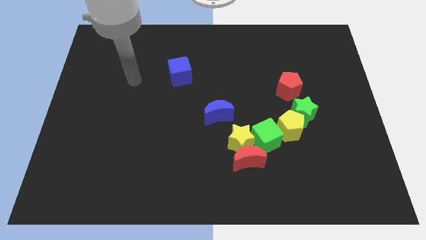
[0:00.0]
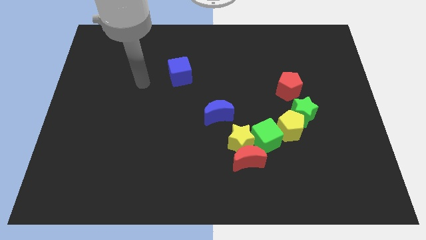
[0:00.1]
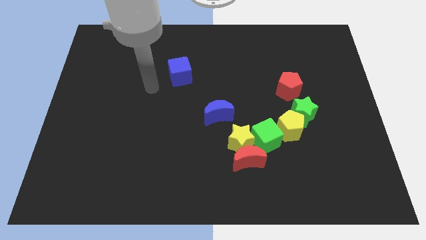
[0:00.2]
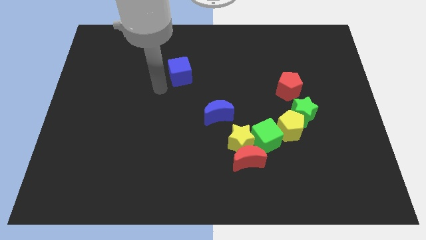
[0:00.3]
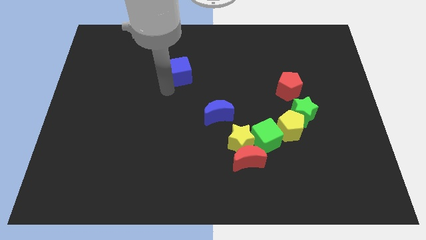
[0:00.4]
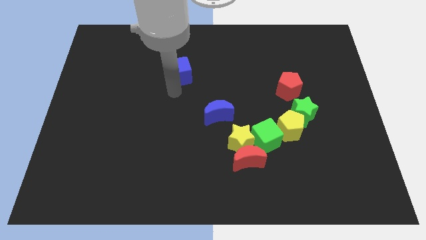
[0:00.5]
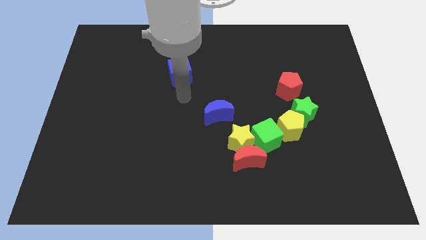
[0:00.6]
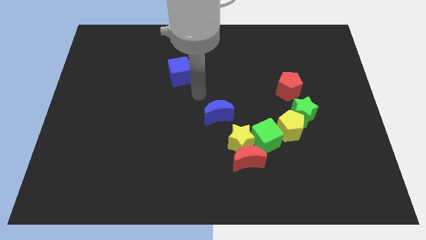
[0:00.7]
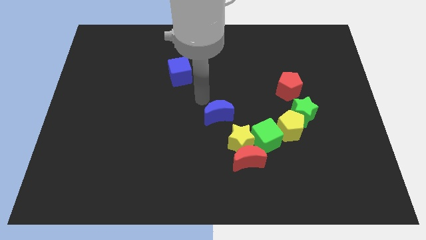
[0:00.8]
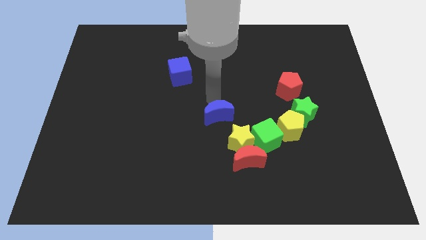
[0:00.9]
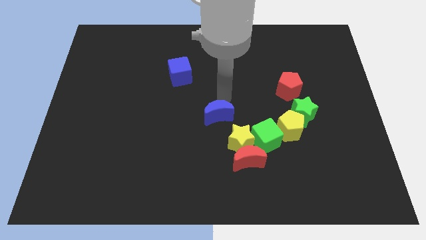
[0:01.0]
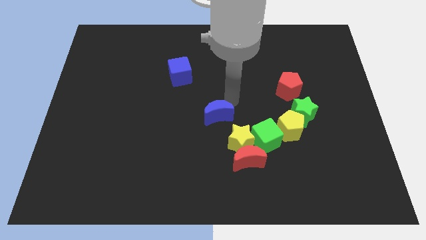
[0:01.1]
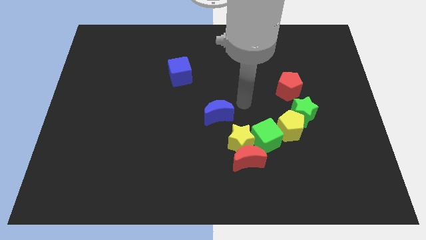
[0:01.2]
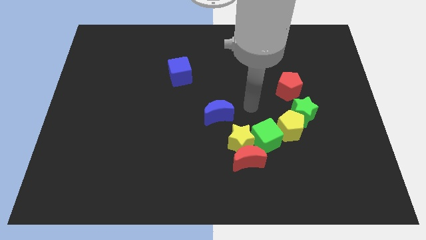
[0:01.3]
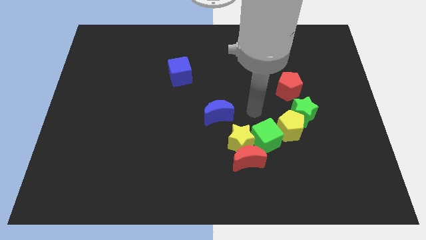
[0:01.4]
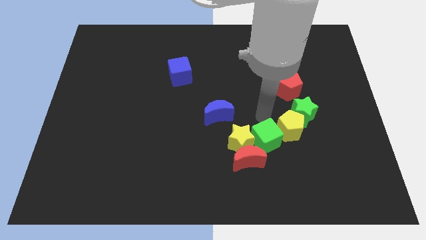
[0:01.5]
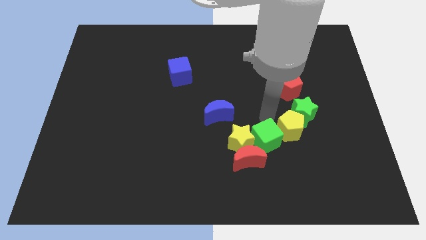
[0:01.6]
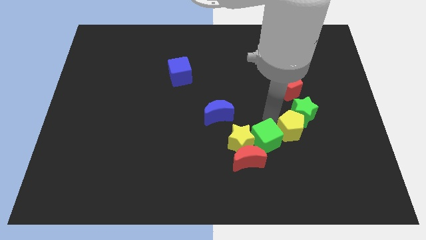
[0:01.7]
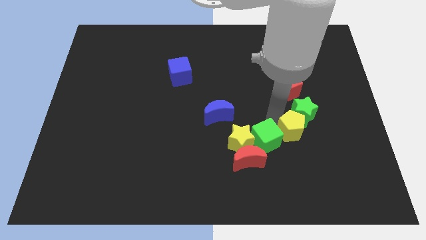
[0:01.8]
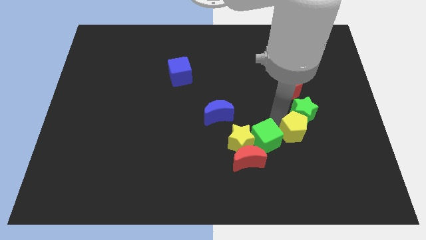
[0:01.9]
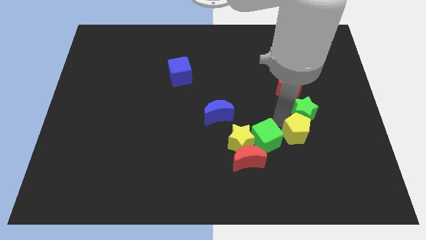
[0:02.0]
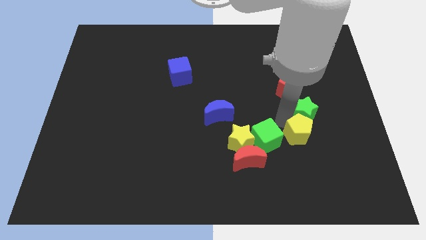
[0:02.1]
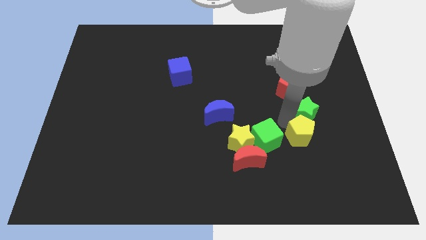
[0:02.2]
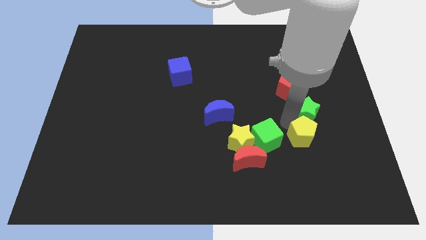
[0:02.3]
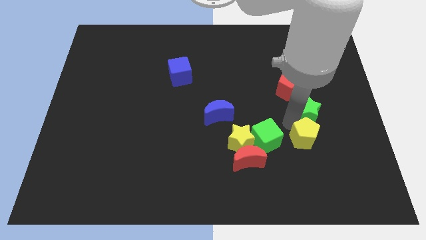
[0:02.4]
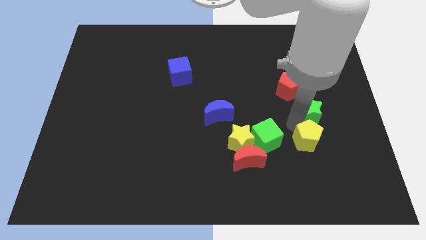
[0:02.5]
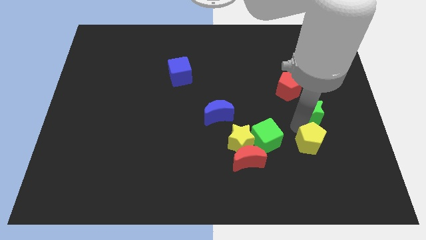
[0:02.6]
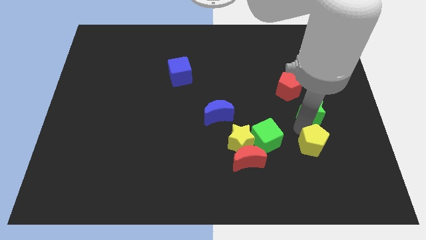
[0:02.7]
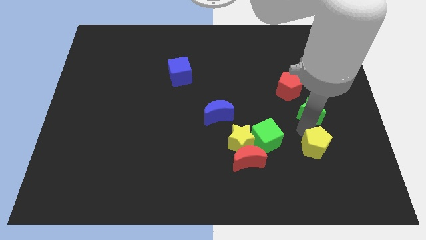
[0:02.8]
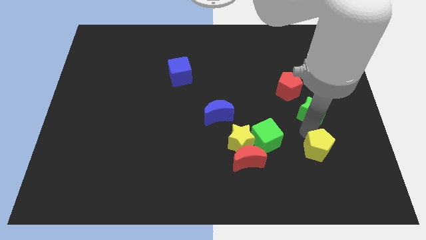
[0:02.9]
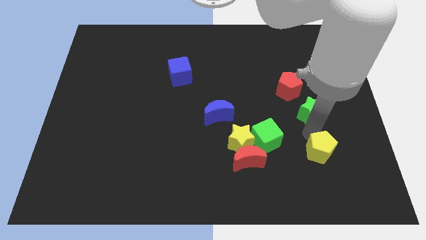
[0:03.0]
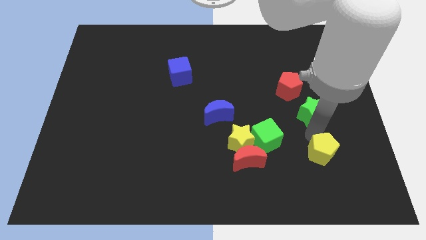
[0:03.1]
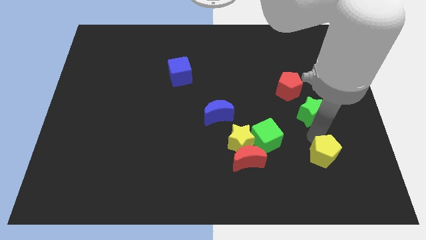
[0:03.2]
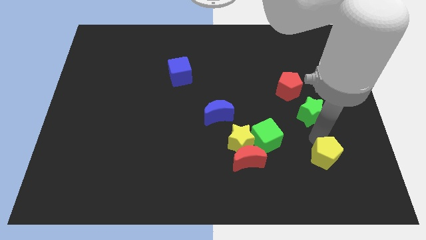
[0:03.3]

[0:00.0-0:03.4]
pull the yellow pentagon apart from the green star and green cube

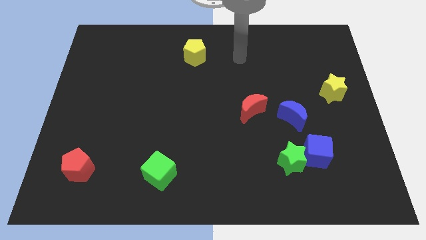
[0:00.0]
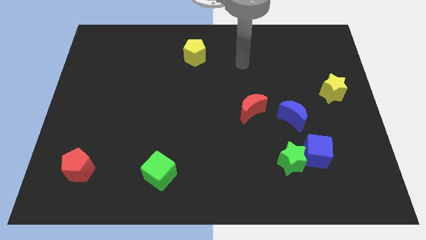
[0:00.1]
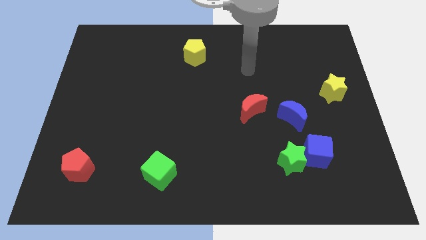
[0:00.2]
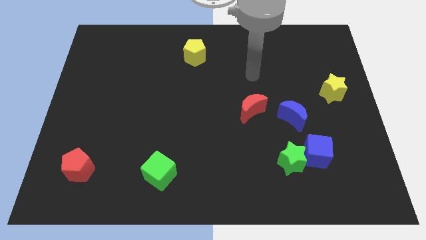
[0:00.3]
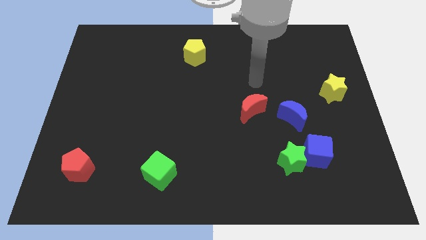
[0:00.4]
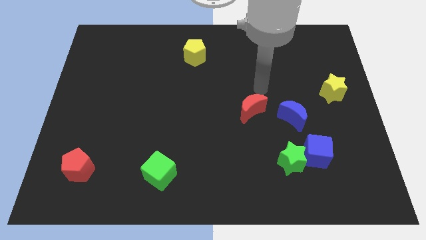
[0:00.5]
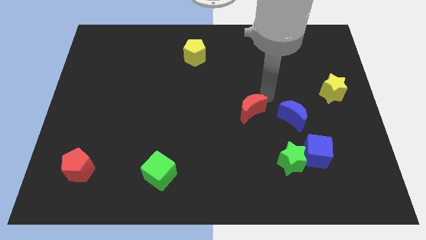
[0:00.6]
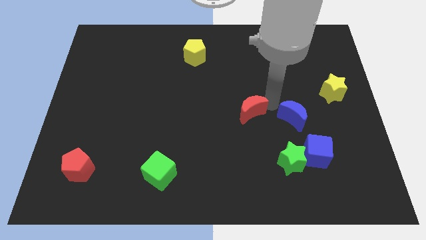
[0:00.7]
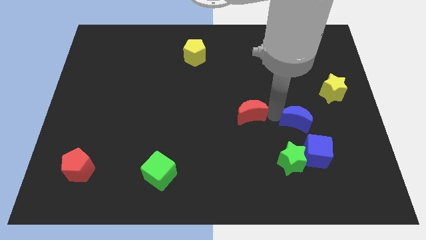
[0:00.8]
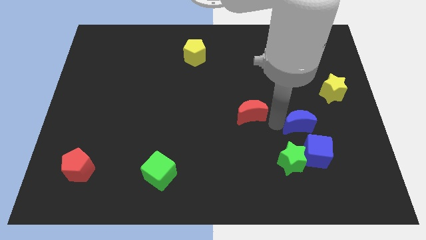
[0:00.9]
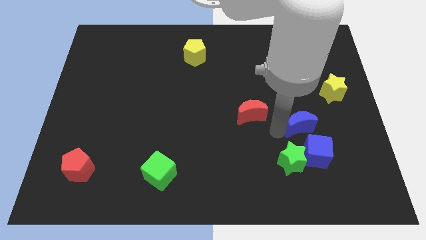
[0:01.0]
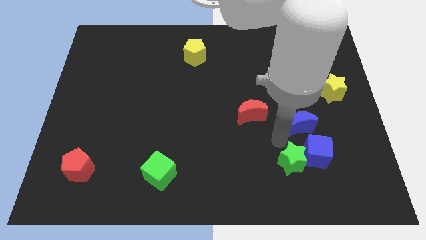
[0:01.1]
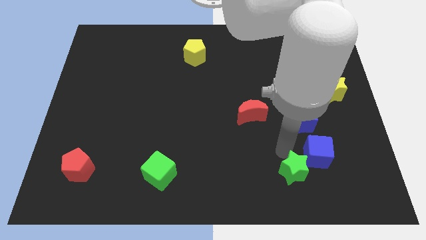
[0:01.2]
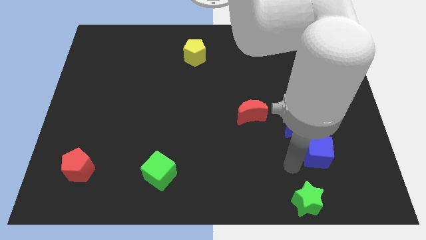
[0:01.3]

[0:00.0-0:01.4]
pull the blue cube apart from the green star

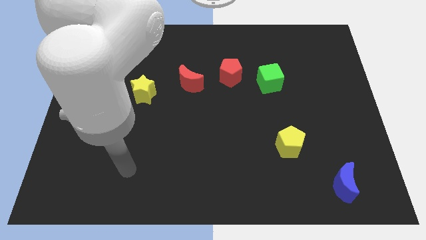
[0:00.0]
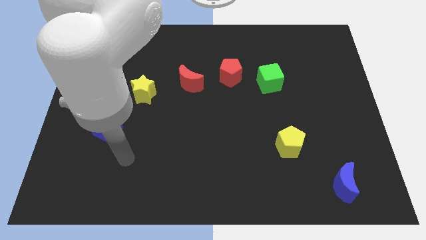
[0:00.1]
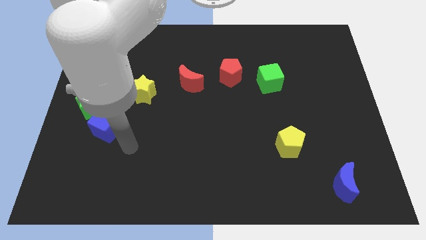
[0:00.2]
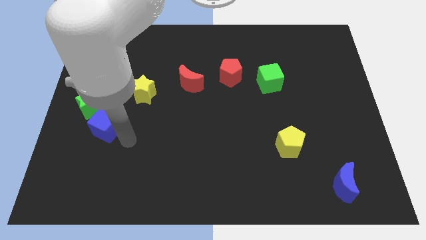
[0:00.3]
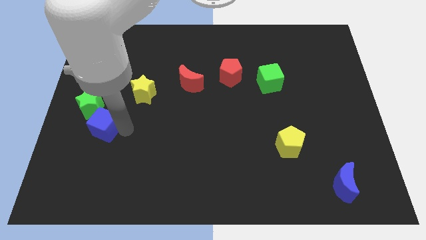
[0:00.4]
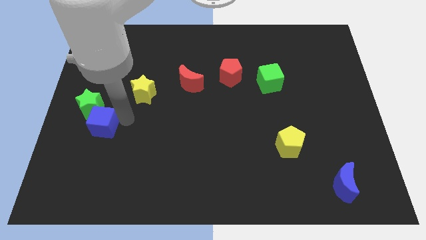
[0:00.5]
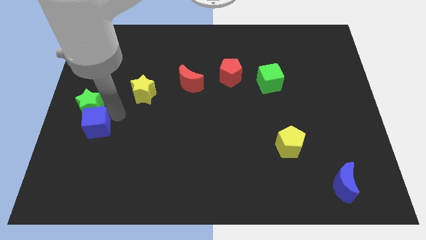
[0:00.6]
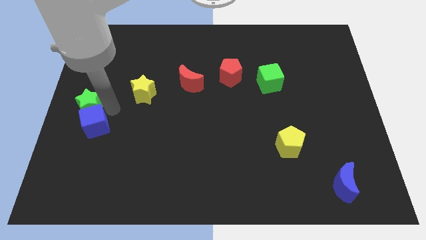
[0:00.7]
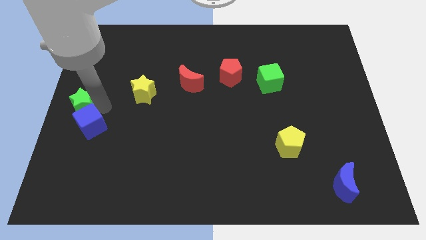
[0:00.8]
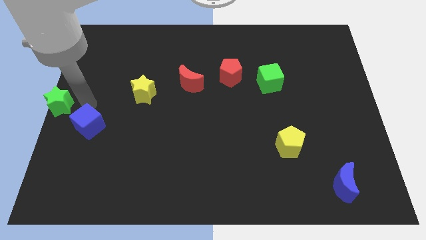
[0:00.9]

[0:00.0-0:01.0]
separate the blue cube from the green star

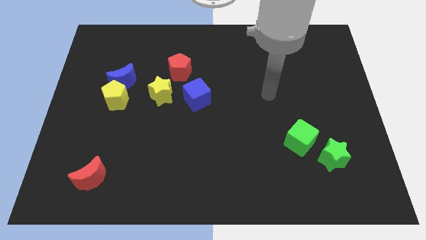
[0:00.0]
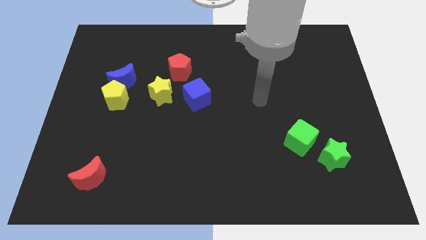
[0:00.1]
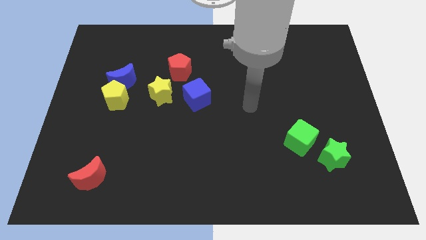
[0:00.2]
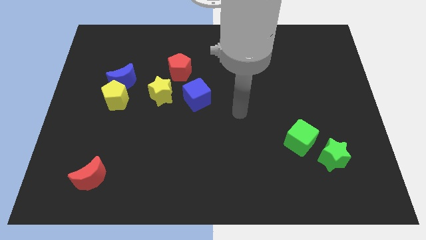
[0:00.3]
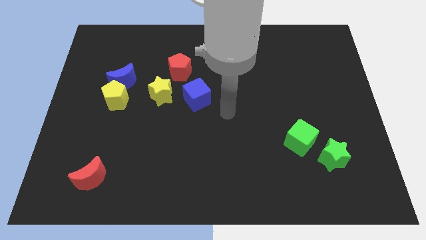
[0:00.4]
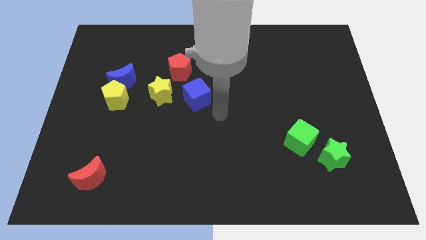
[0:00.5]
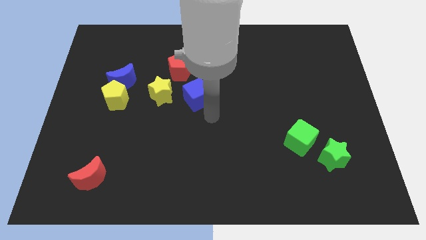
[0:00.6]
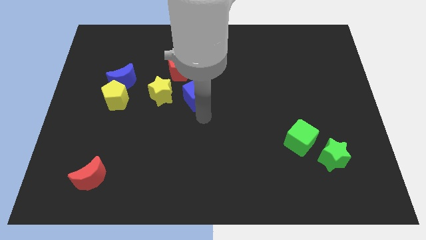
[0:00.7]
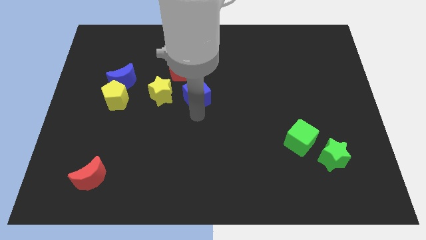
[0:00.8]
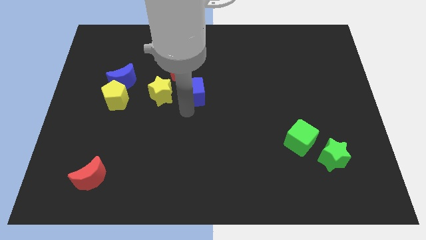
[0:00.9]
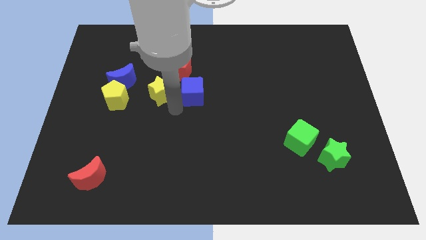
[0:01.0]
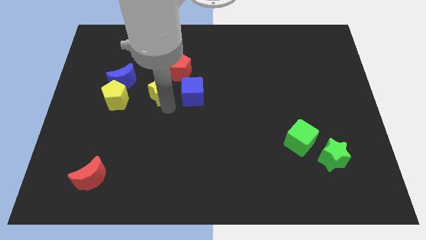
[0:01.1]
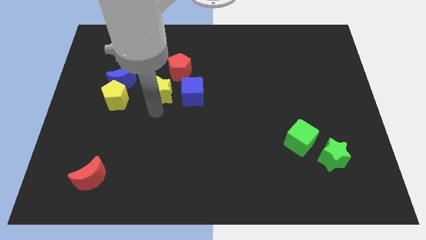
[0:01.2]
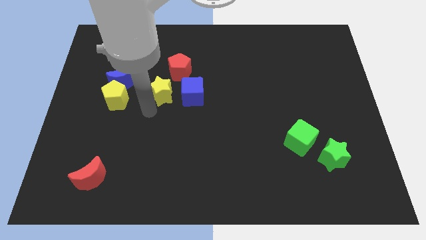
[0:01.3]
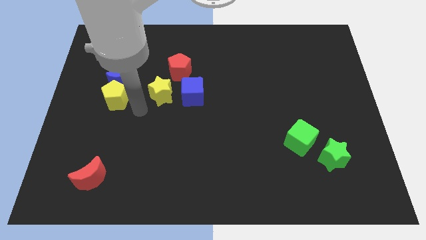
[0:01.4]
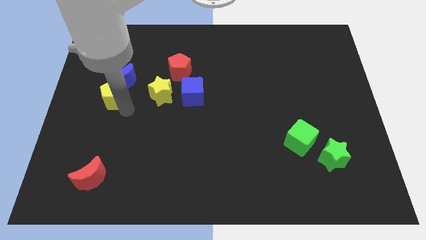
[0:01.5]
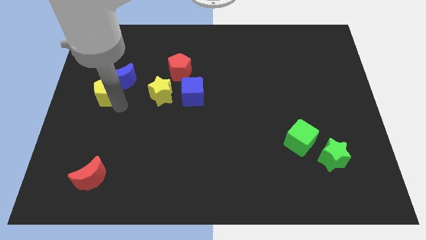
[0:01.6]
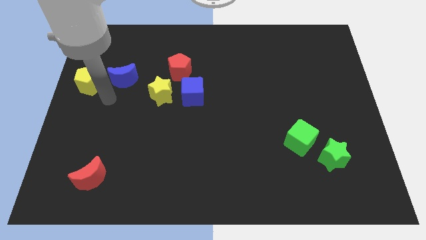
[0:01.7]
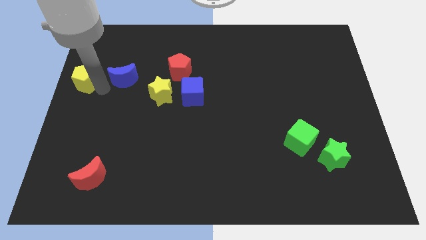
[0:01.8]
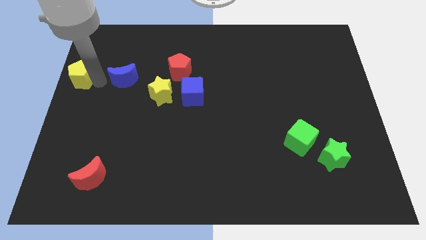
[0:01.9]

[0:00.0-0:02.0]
separate the blue moon from the yellow pentagon

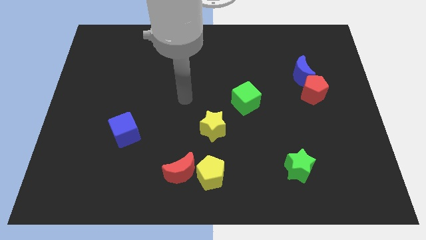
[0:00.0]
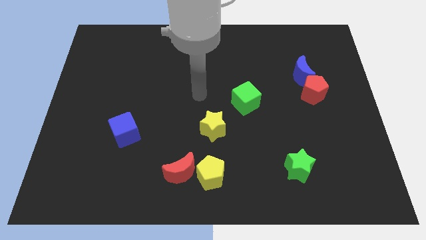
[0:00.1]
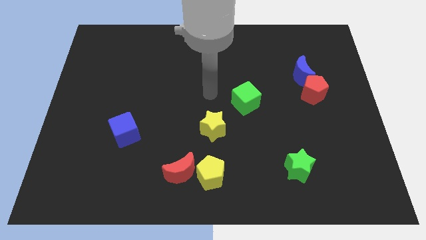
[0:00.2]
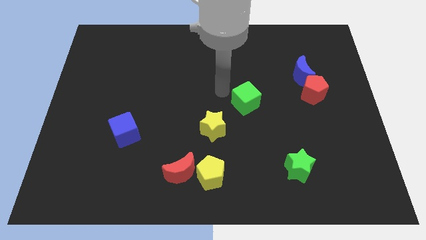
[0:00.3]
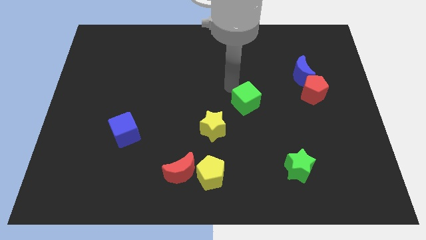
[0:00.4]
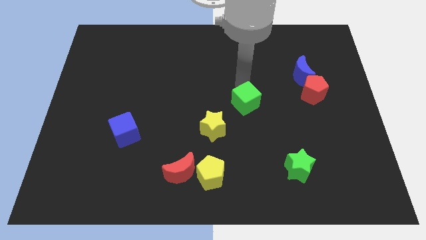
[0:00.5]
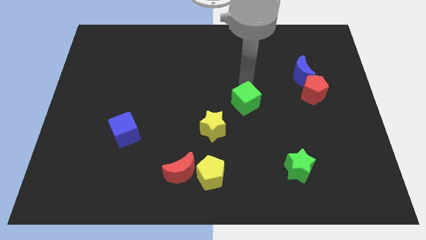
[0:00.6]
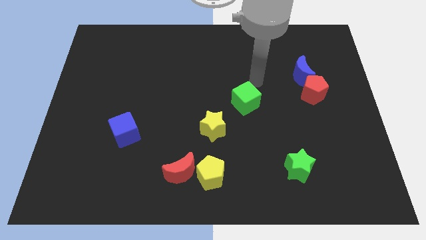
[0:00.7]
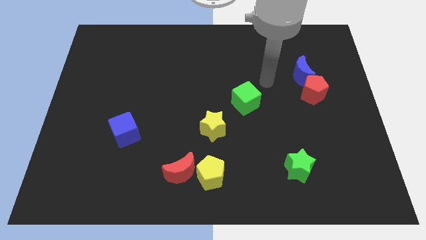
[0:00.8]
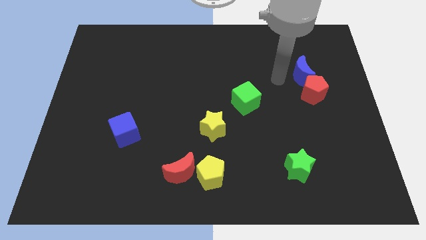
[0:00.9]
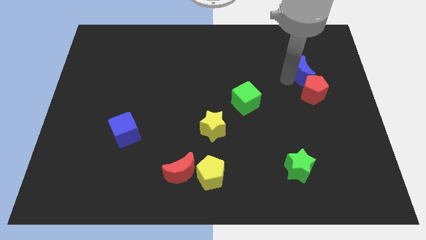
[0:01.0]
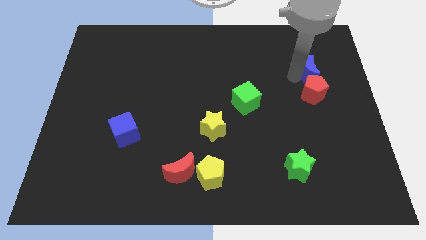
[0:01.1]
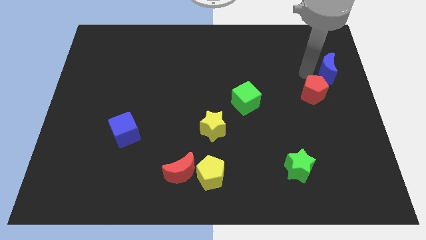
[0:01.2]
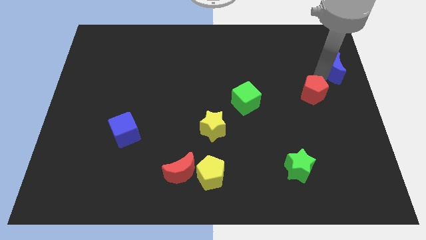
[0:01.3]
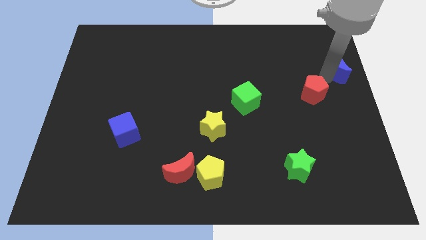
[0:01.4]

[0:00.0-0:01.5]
pull the red pentagon apart from the blue moon

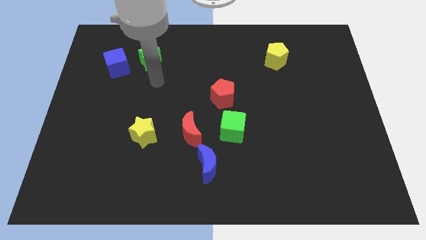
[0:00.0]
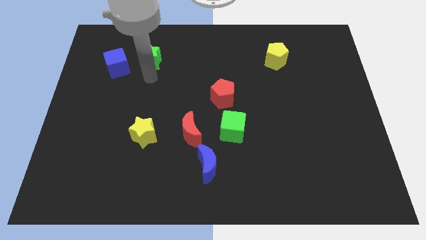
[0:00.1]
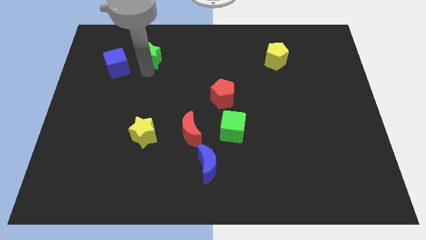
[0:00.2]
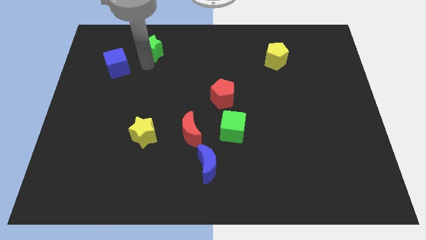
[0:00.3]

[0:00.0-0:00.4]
move the blue cube away from the green star
